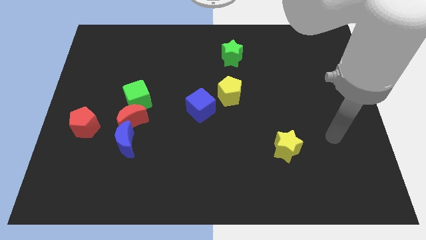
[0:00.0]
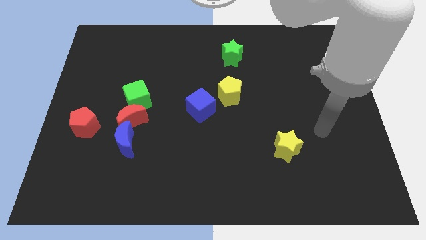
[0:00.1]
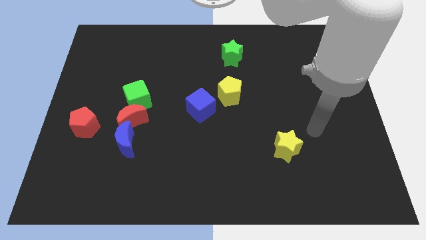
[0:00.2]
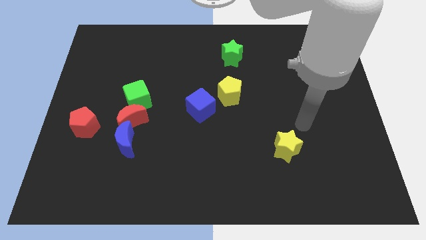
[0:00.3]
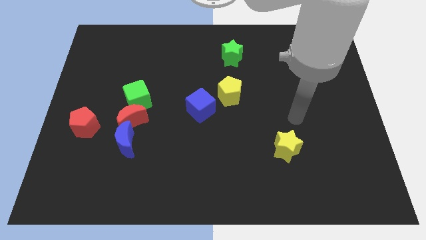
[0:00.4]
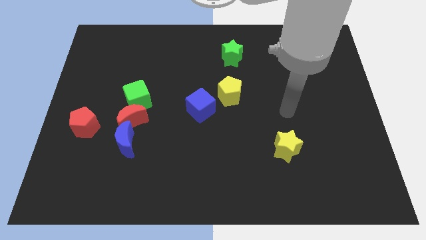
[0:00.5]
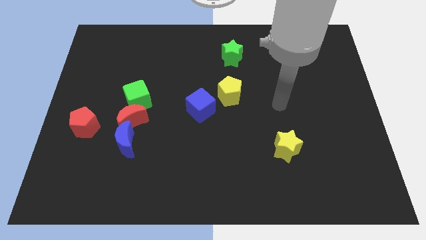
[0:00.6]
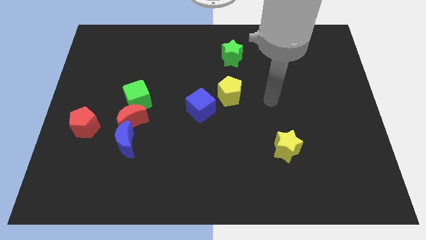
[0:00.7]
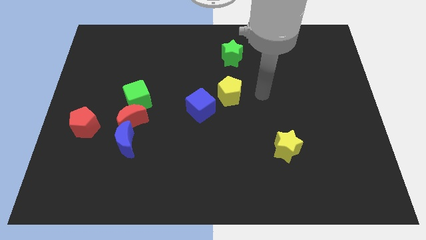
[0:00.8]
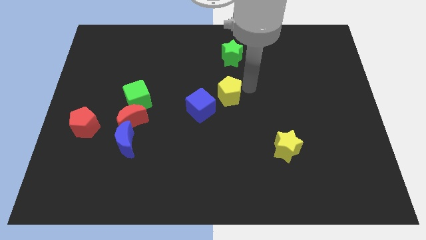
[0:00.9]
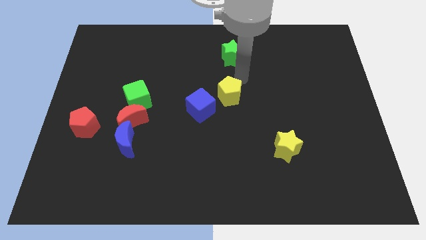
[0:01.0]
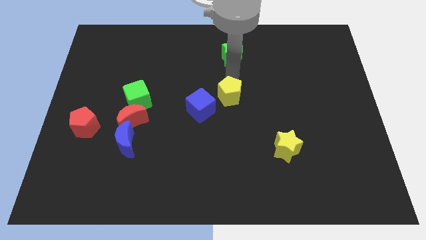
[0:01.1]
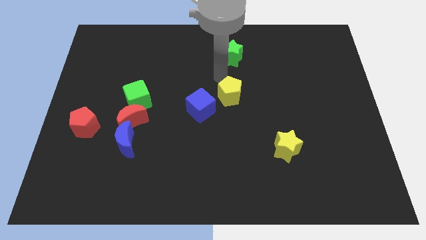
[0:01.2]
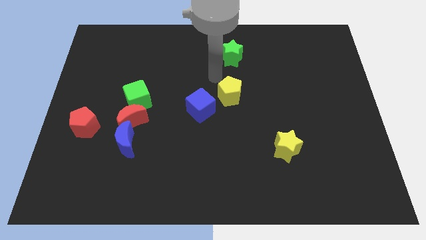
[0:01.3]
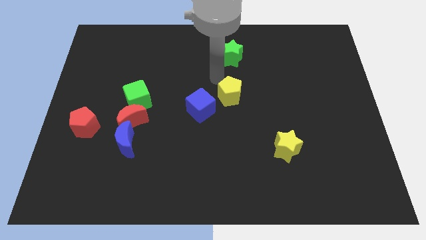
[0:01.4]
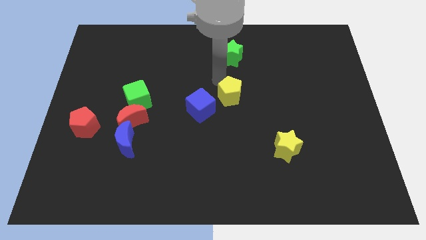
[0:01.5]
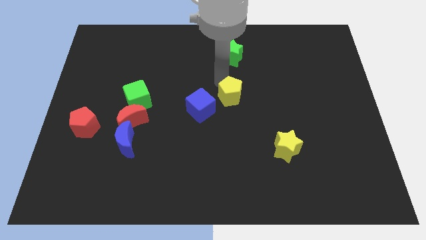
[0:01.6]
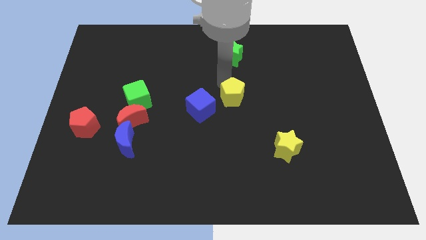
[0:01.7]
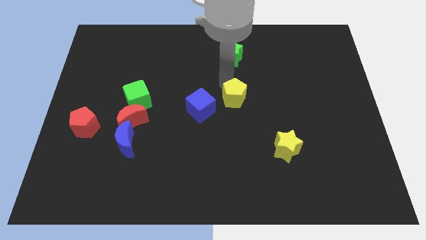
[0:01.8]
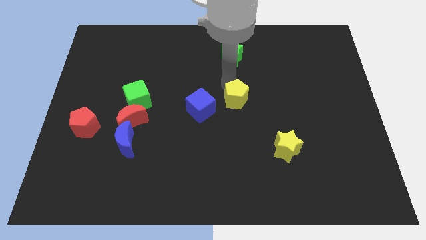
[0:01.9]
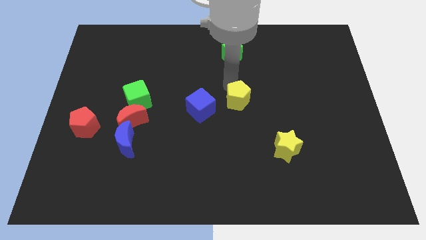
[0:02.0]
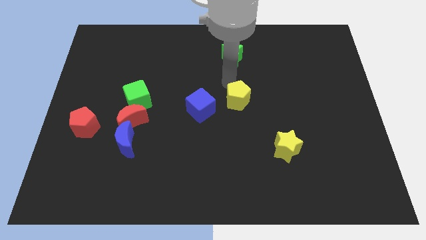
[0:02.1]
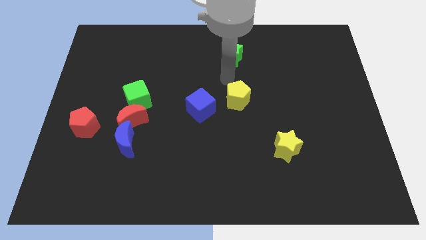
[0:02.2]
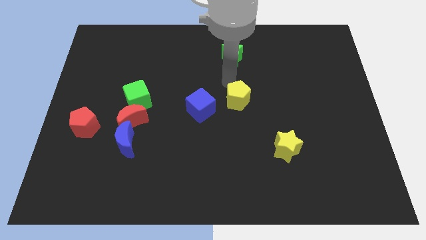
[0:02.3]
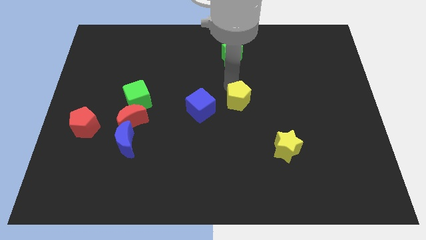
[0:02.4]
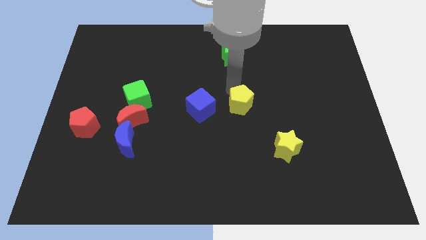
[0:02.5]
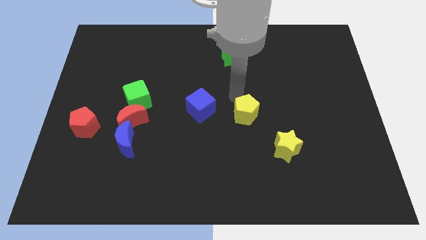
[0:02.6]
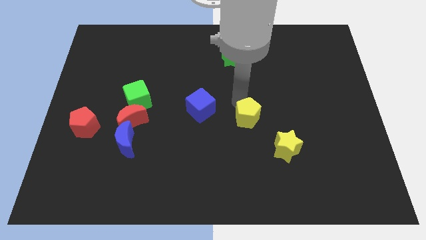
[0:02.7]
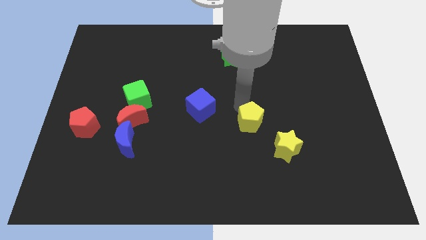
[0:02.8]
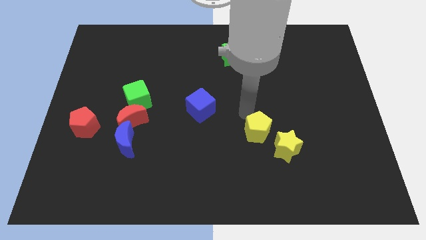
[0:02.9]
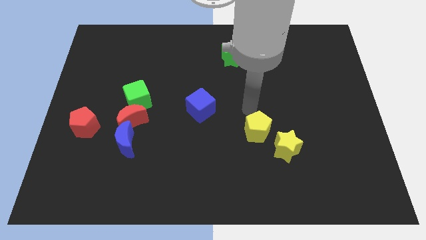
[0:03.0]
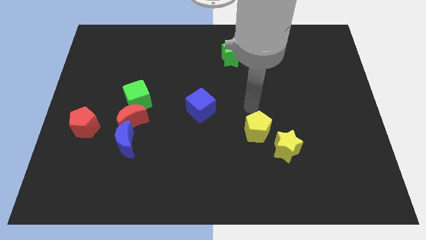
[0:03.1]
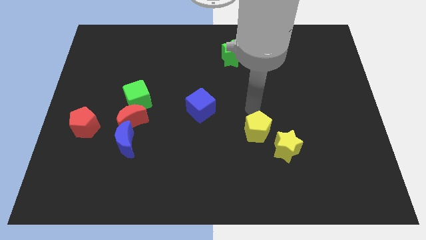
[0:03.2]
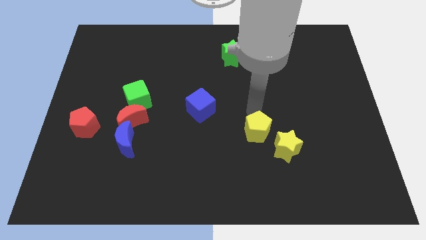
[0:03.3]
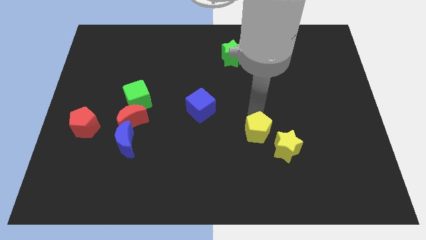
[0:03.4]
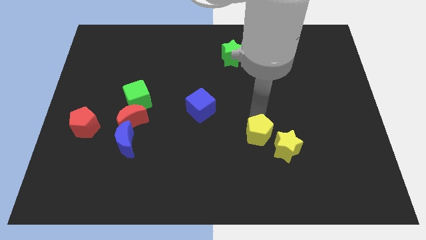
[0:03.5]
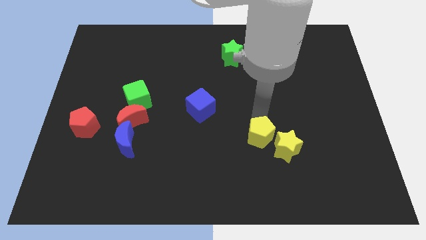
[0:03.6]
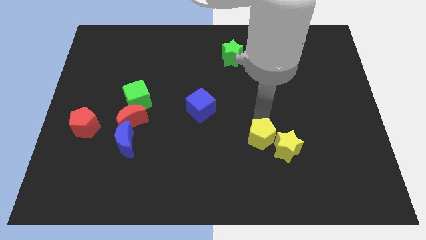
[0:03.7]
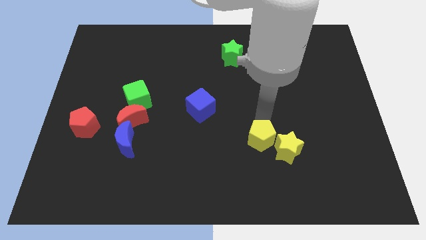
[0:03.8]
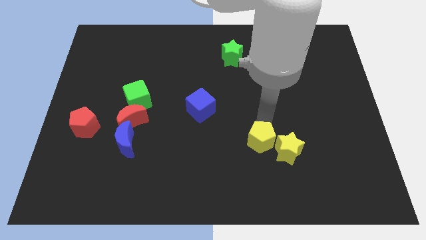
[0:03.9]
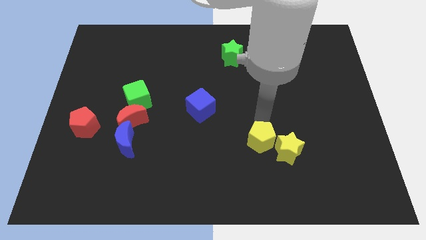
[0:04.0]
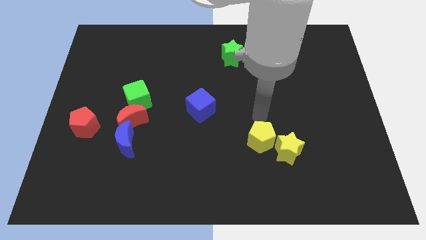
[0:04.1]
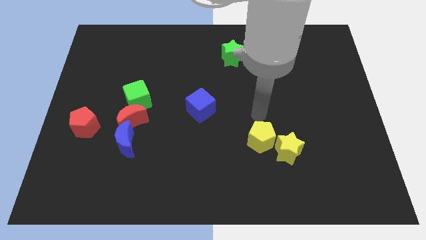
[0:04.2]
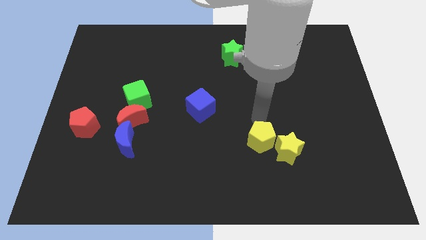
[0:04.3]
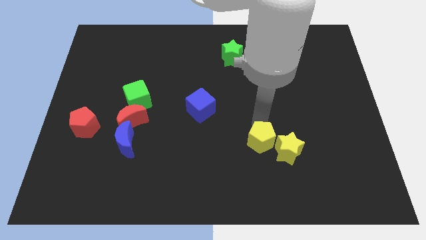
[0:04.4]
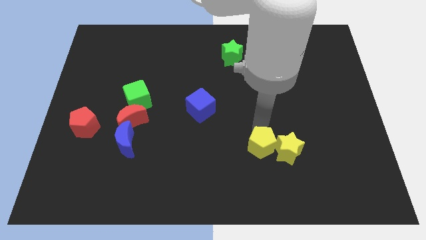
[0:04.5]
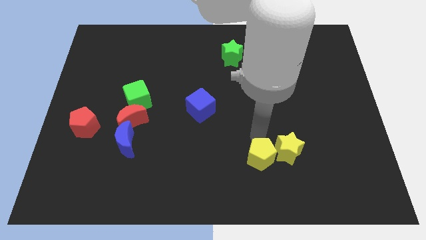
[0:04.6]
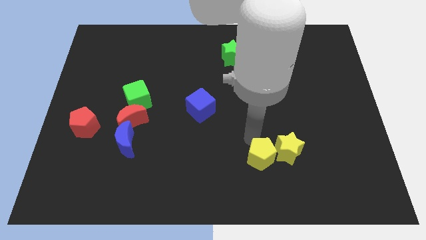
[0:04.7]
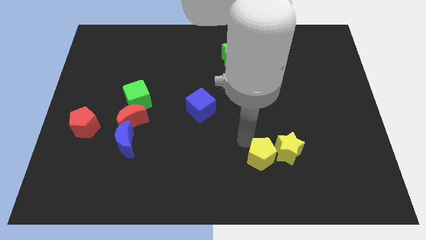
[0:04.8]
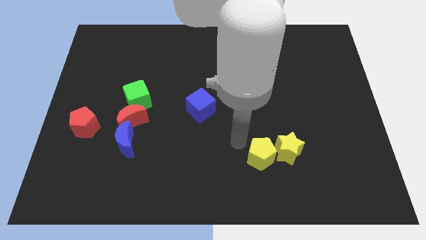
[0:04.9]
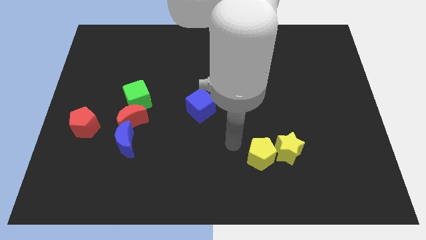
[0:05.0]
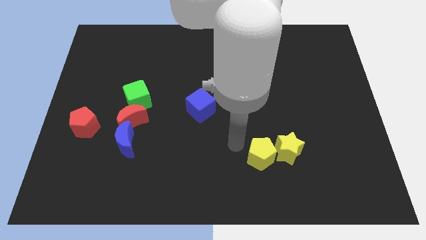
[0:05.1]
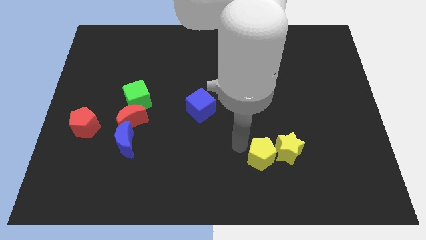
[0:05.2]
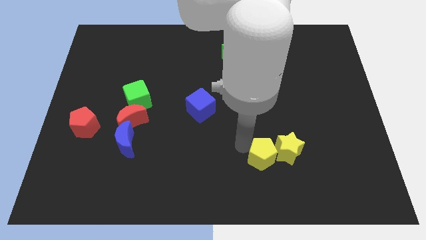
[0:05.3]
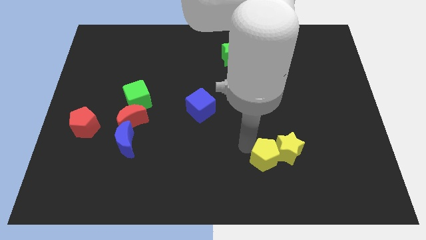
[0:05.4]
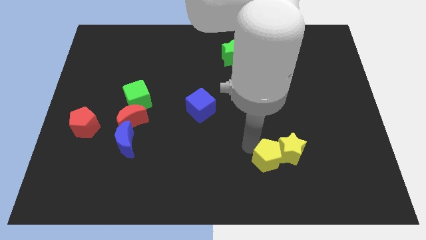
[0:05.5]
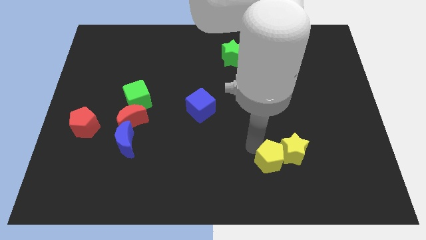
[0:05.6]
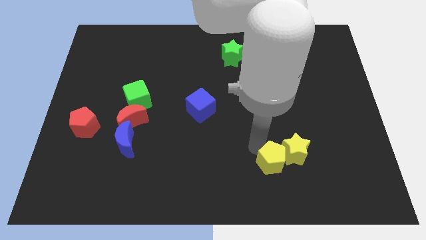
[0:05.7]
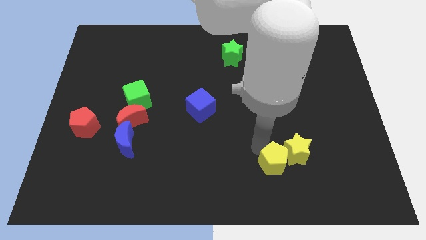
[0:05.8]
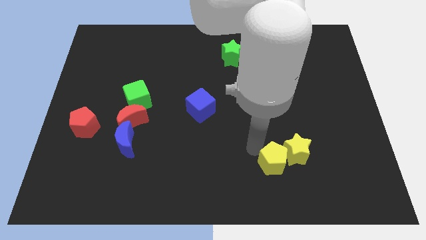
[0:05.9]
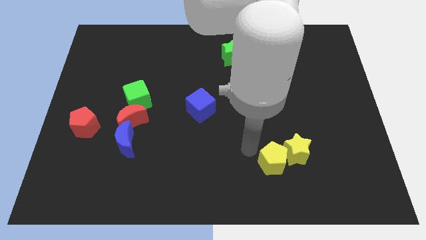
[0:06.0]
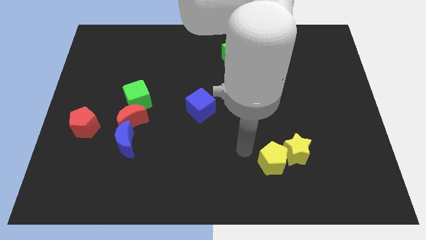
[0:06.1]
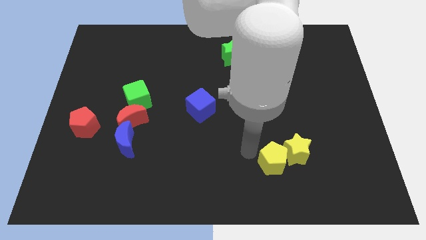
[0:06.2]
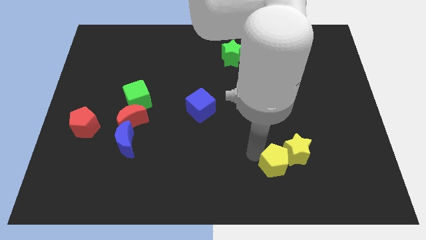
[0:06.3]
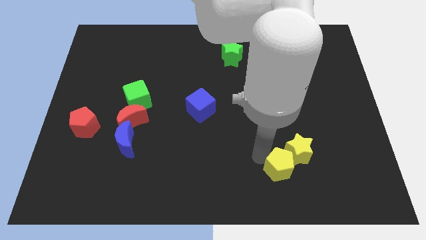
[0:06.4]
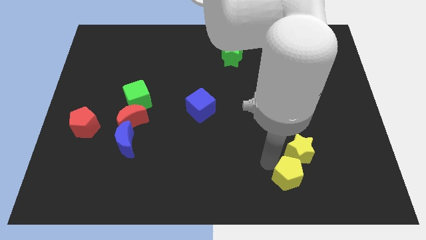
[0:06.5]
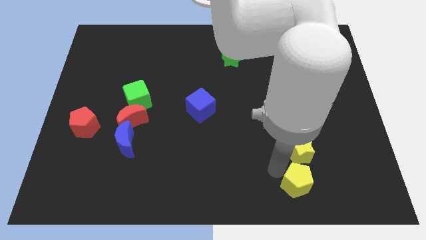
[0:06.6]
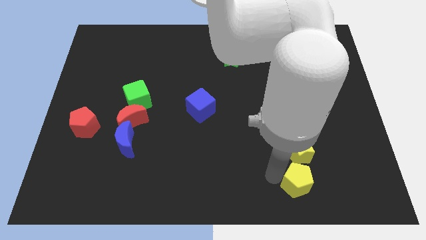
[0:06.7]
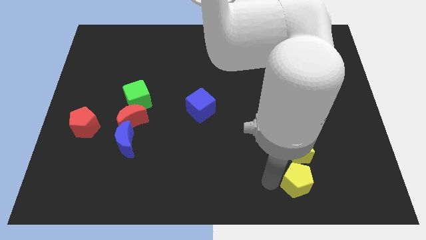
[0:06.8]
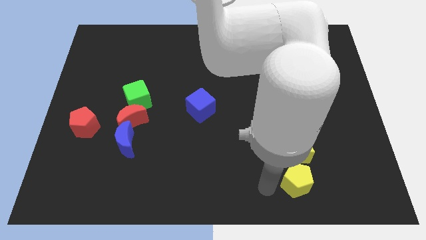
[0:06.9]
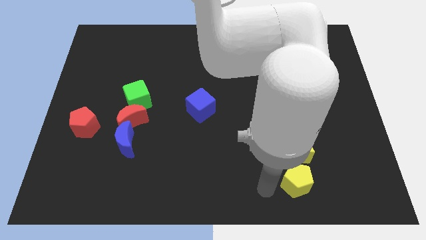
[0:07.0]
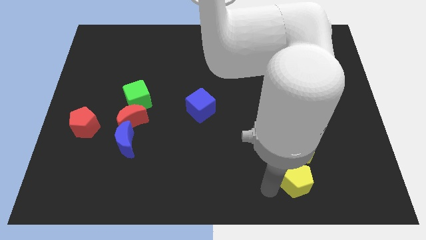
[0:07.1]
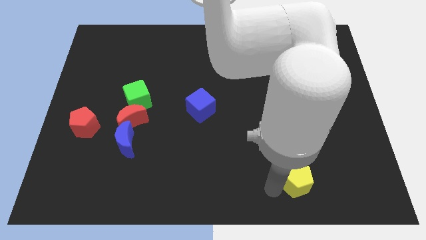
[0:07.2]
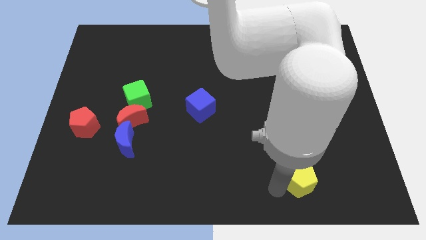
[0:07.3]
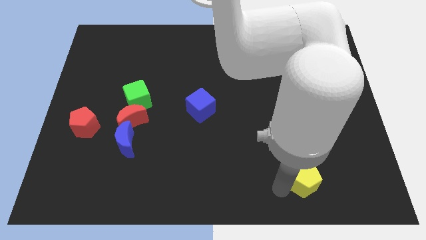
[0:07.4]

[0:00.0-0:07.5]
push the yellow pentagon diagonally down and to the right of the yellow star

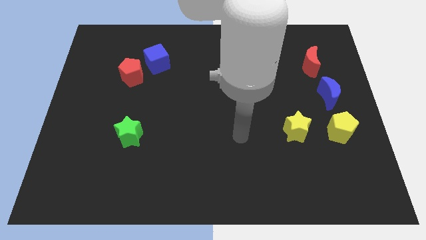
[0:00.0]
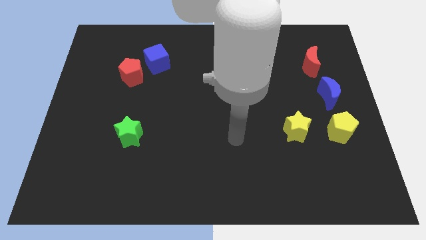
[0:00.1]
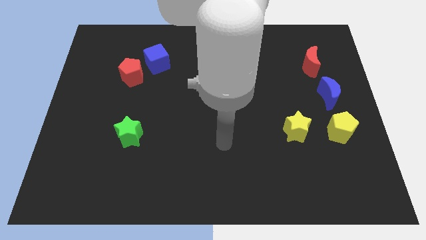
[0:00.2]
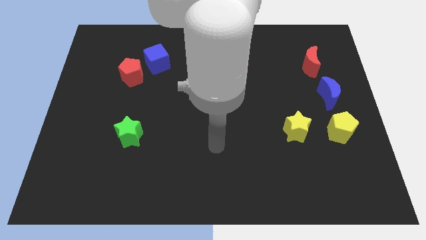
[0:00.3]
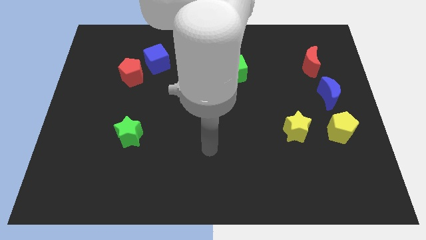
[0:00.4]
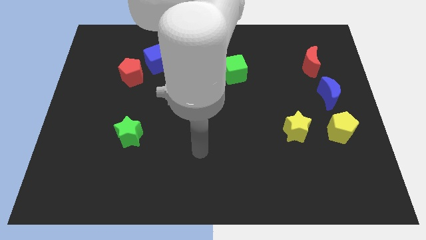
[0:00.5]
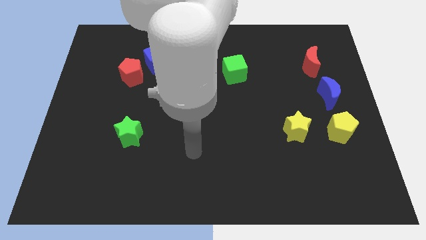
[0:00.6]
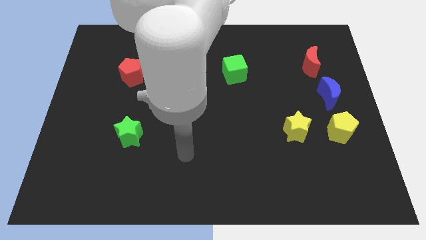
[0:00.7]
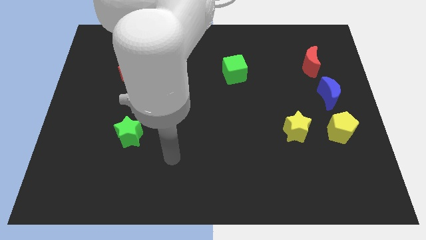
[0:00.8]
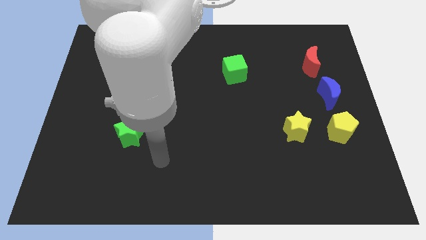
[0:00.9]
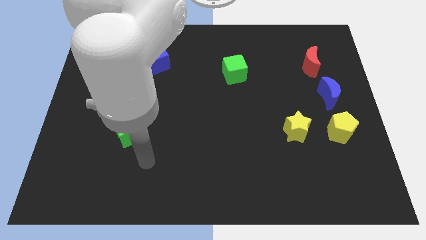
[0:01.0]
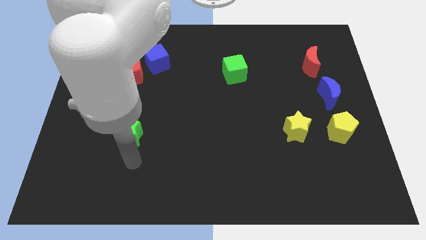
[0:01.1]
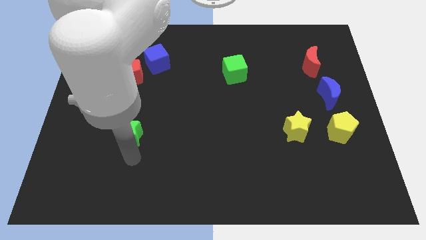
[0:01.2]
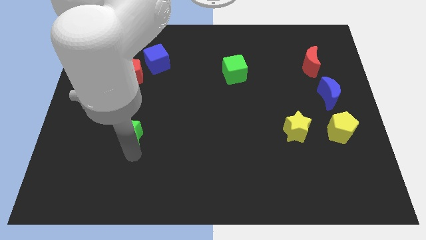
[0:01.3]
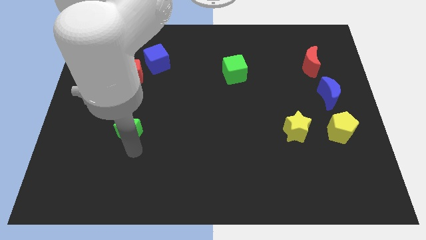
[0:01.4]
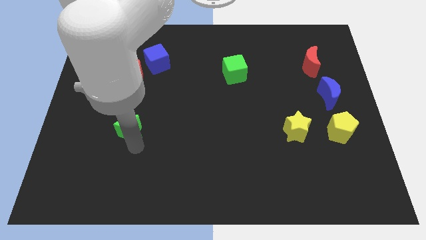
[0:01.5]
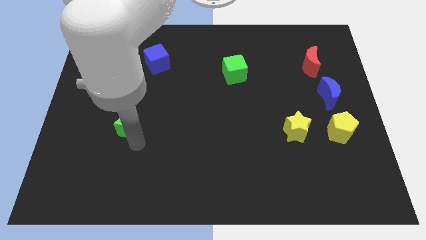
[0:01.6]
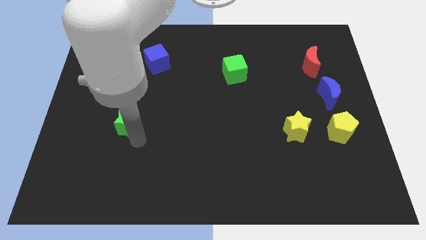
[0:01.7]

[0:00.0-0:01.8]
move the green star to the bottom side of the red pentagon
